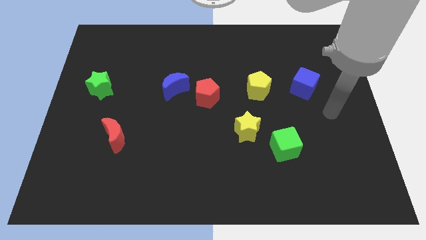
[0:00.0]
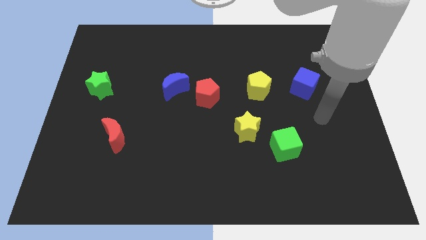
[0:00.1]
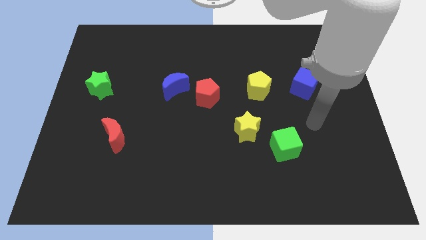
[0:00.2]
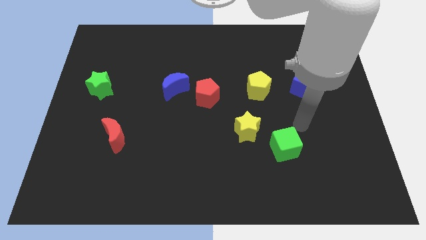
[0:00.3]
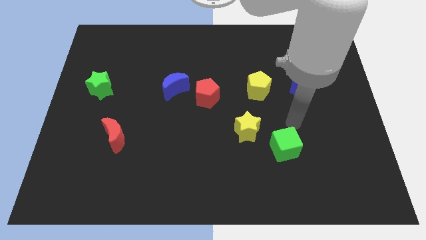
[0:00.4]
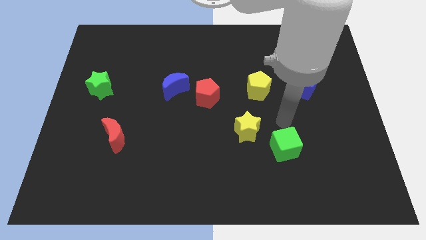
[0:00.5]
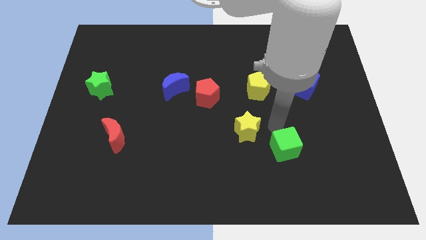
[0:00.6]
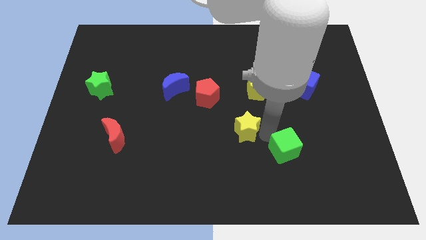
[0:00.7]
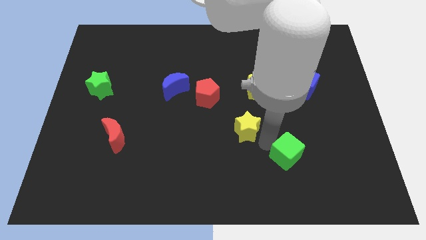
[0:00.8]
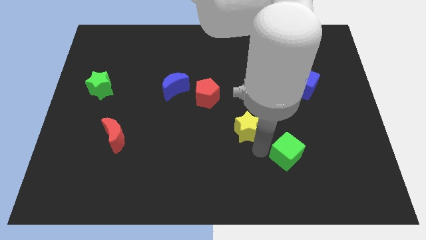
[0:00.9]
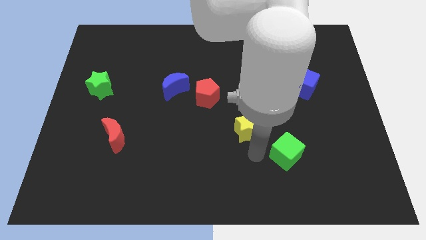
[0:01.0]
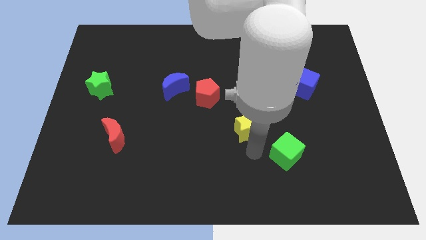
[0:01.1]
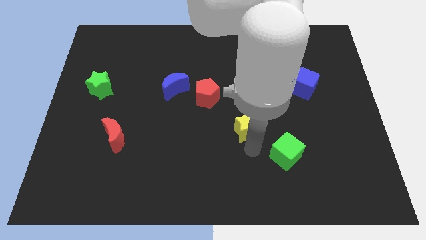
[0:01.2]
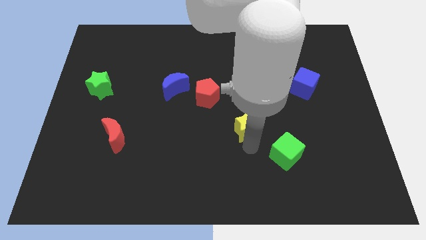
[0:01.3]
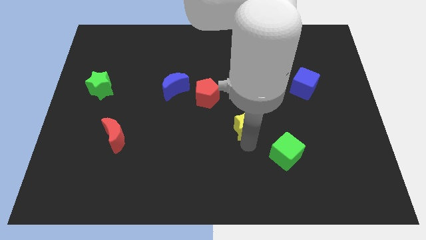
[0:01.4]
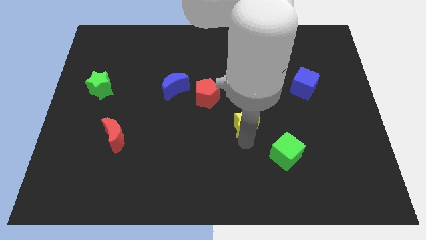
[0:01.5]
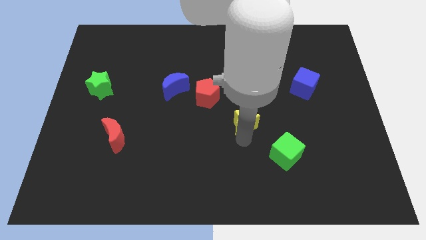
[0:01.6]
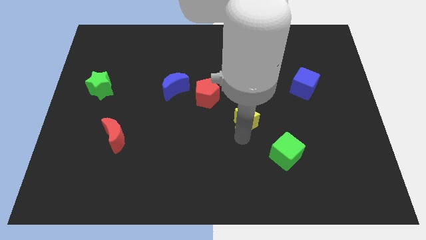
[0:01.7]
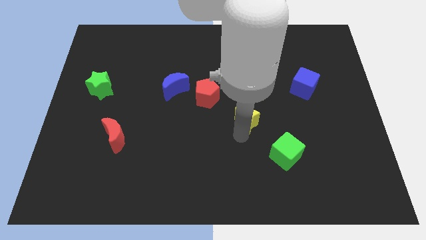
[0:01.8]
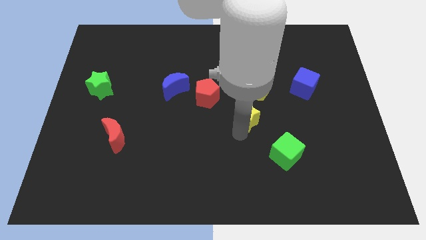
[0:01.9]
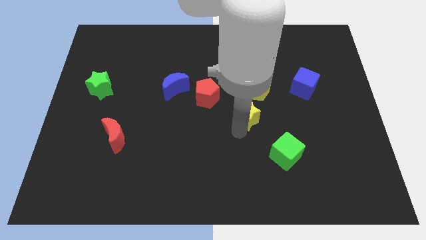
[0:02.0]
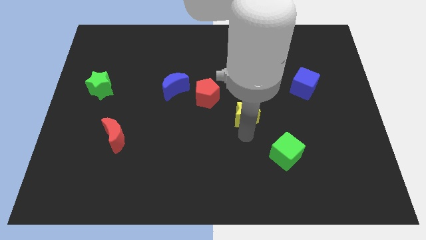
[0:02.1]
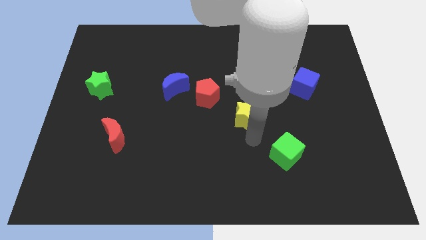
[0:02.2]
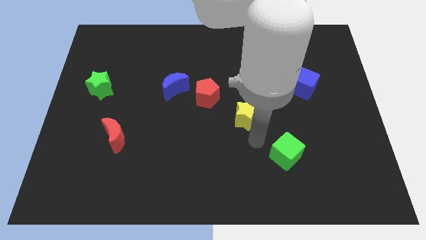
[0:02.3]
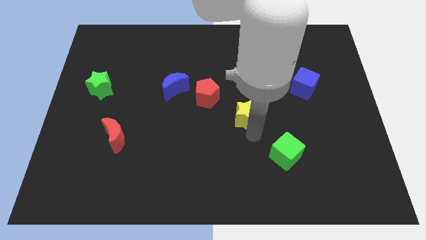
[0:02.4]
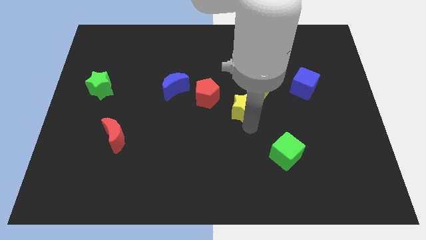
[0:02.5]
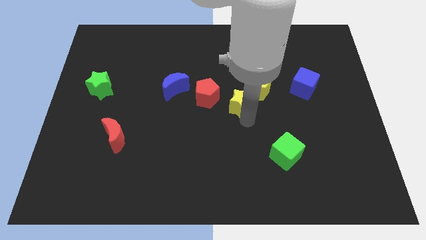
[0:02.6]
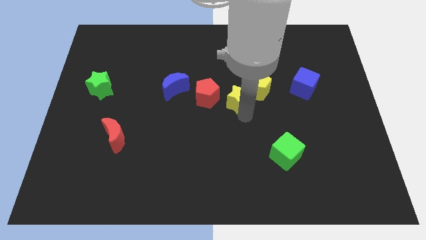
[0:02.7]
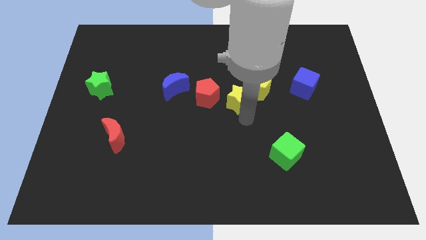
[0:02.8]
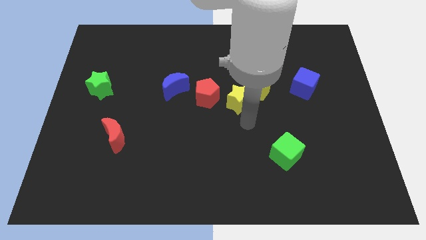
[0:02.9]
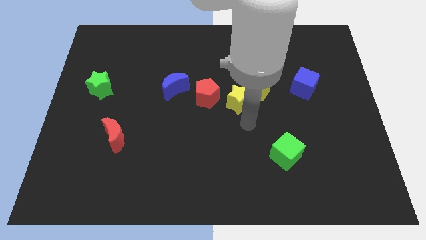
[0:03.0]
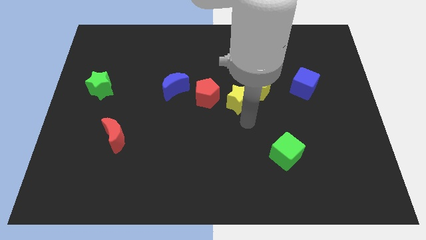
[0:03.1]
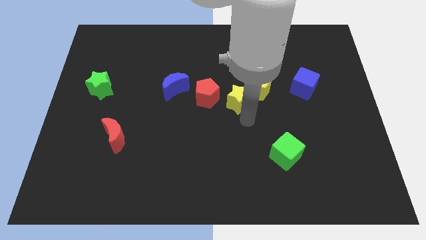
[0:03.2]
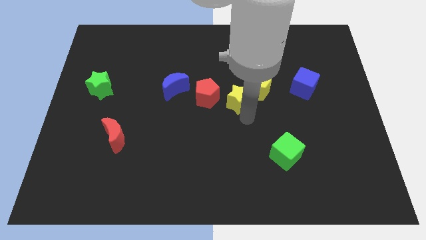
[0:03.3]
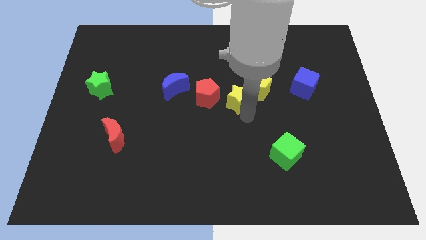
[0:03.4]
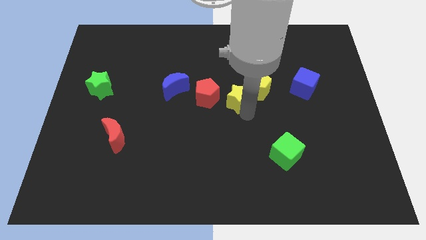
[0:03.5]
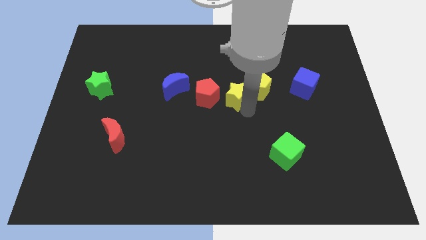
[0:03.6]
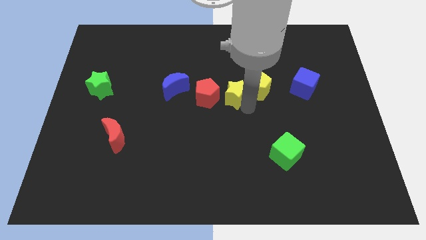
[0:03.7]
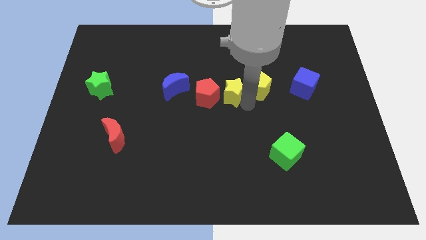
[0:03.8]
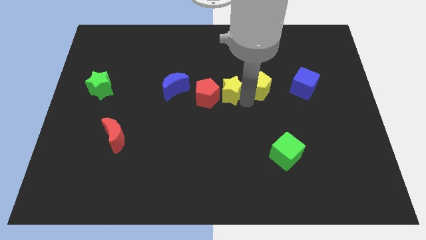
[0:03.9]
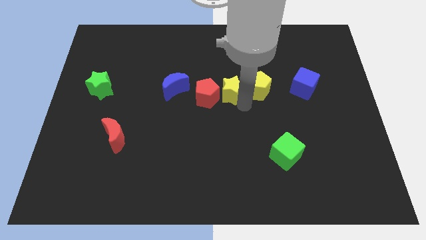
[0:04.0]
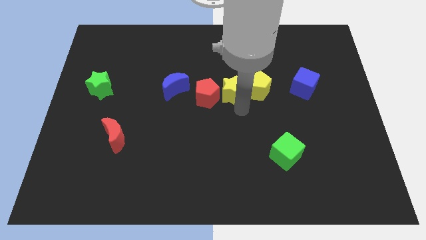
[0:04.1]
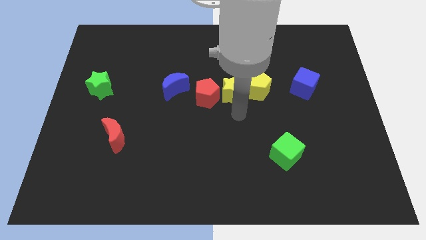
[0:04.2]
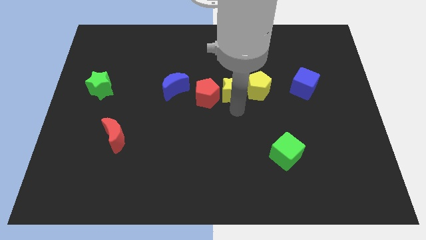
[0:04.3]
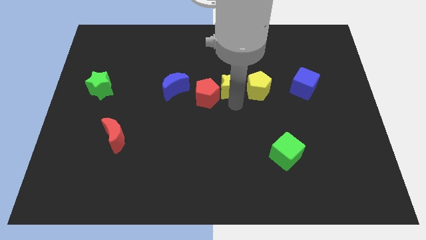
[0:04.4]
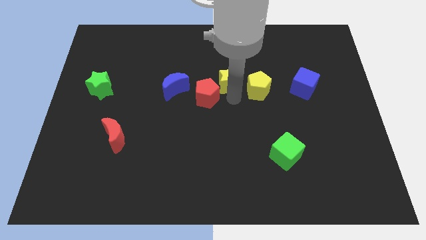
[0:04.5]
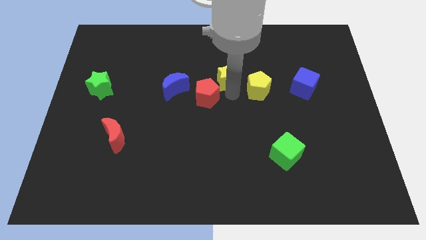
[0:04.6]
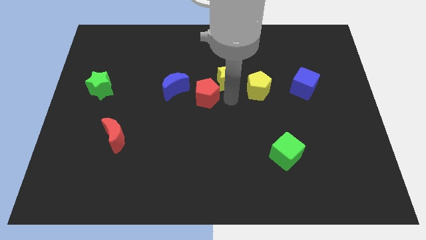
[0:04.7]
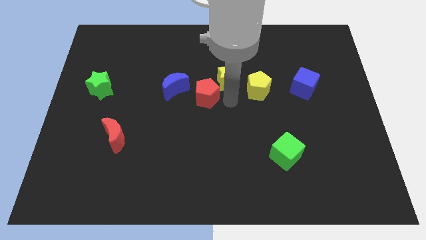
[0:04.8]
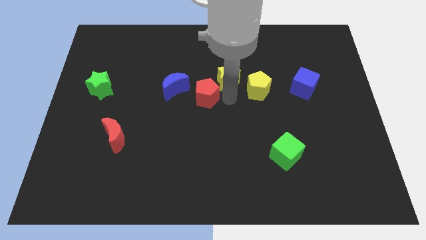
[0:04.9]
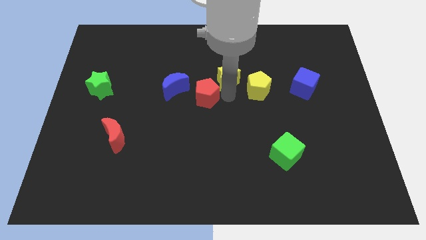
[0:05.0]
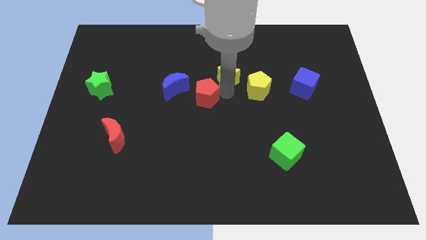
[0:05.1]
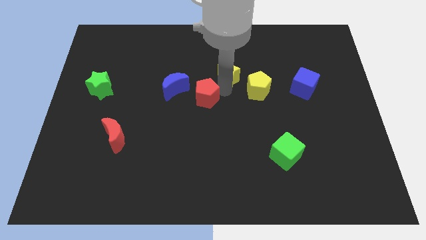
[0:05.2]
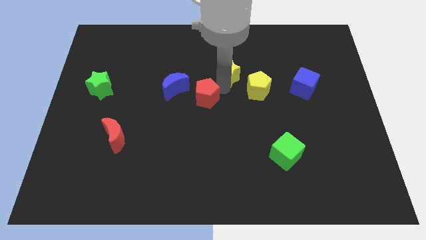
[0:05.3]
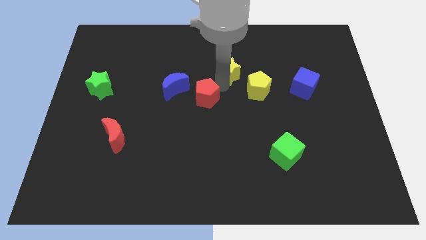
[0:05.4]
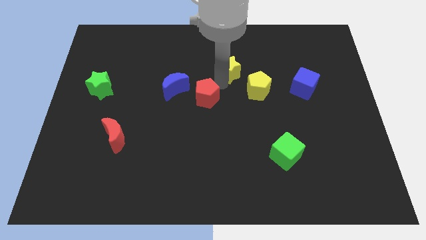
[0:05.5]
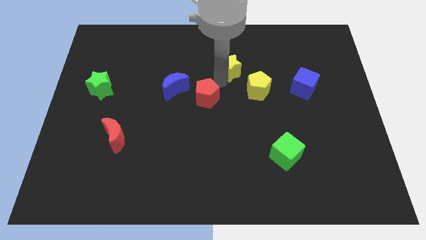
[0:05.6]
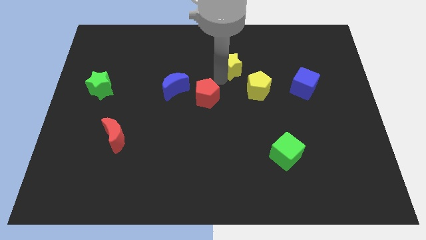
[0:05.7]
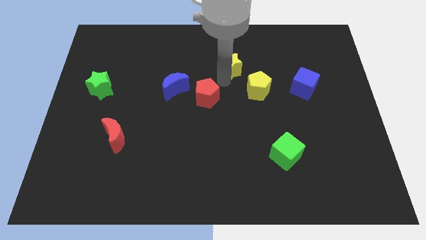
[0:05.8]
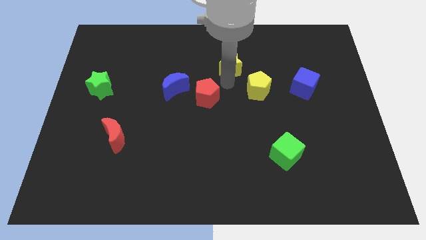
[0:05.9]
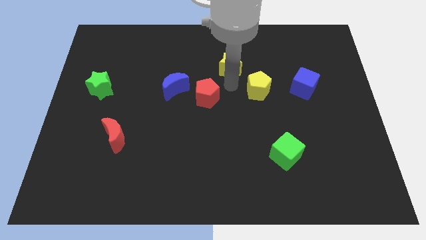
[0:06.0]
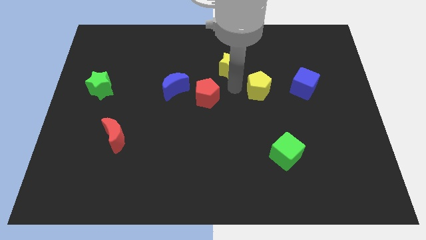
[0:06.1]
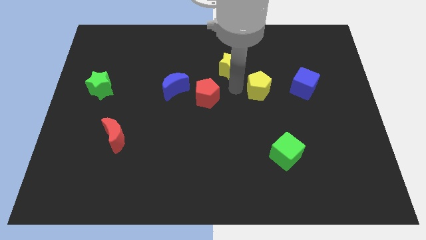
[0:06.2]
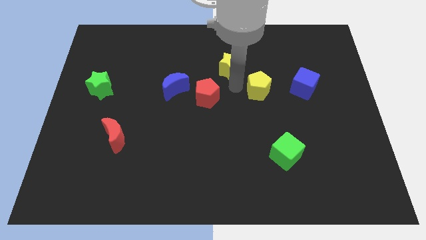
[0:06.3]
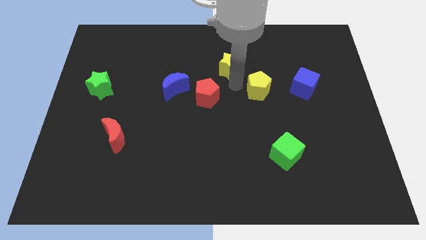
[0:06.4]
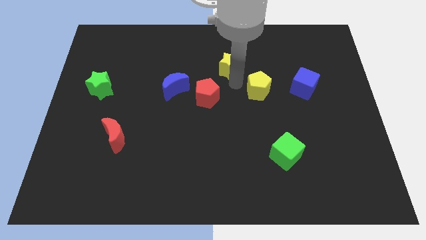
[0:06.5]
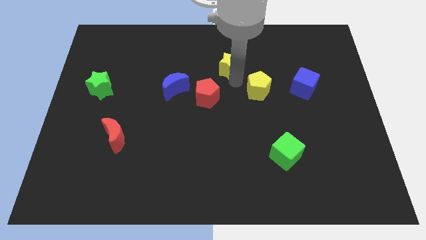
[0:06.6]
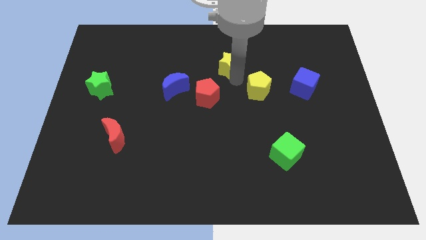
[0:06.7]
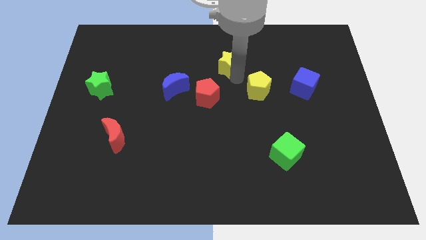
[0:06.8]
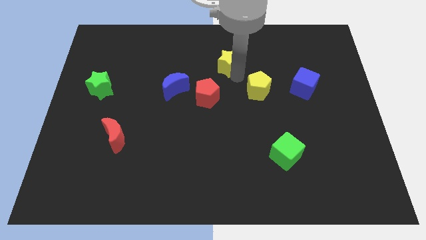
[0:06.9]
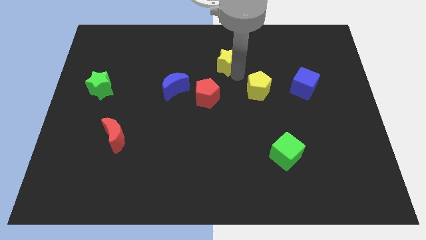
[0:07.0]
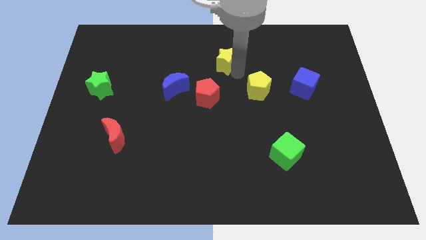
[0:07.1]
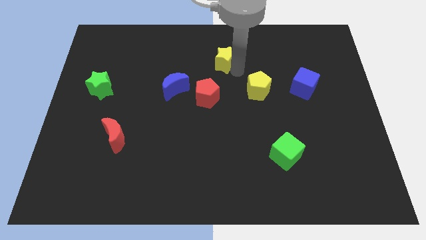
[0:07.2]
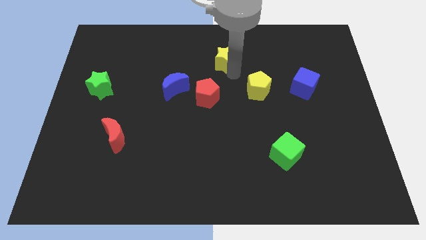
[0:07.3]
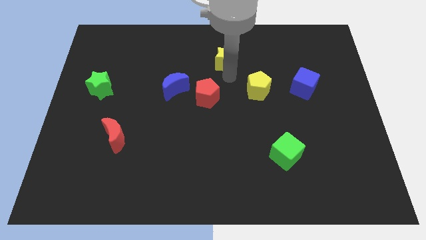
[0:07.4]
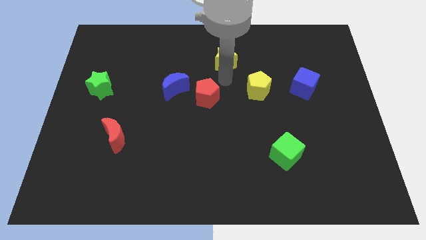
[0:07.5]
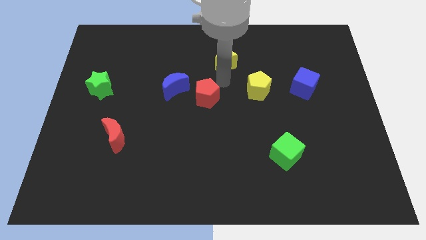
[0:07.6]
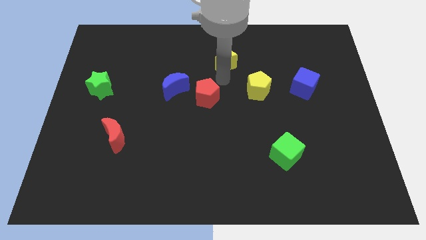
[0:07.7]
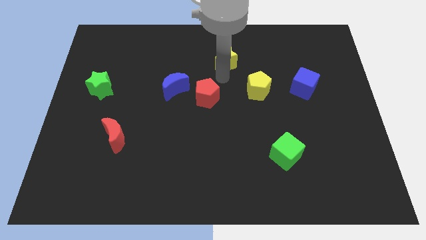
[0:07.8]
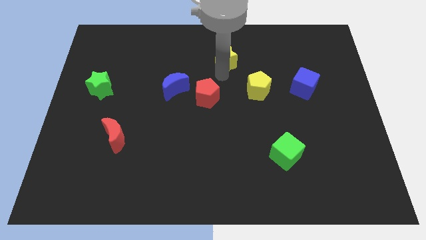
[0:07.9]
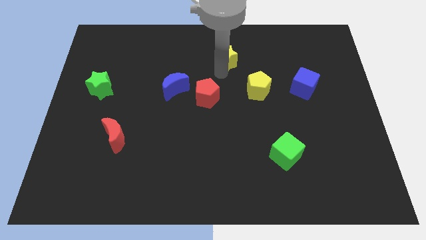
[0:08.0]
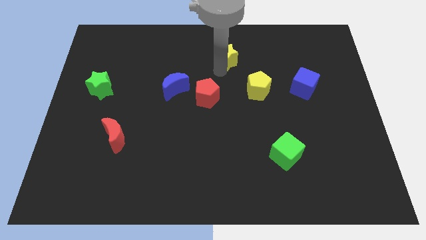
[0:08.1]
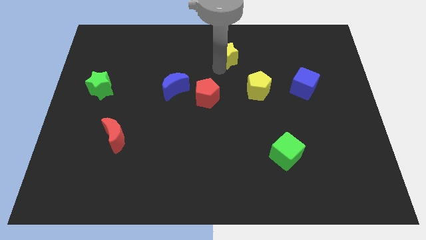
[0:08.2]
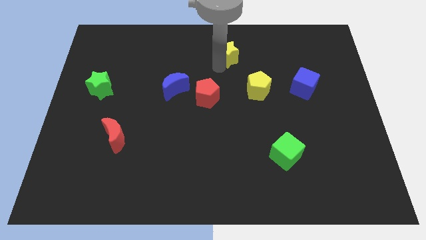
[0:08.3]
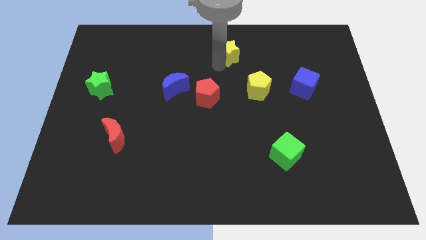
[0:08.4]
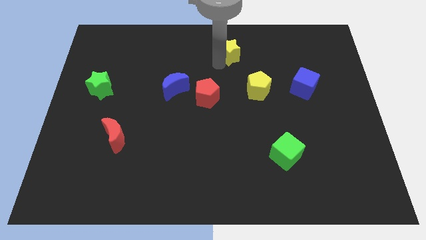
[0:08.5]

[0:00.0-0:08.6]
slide the yellow star to the top
